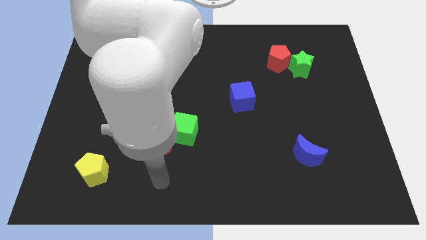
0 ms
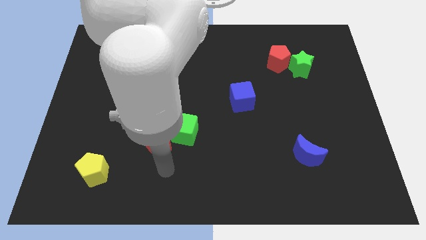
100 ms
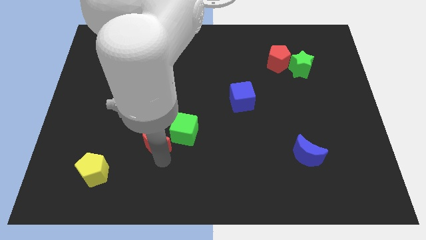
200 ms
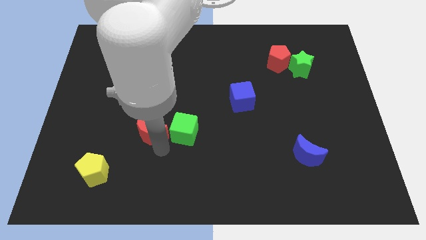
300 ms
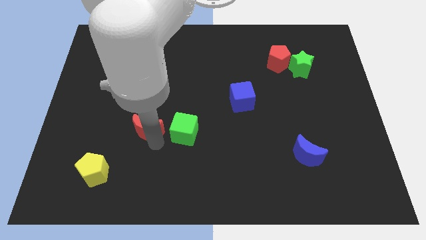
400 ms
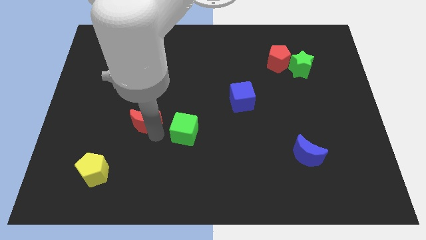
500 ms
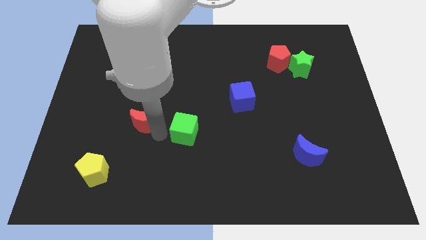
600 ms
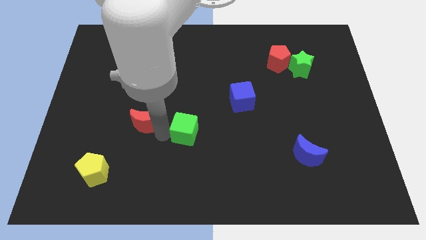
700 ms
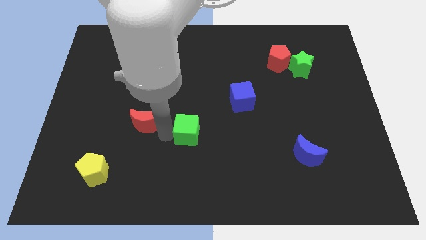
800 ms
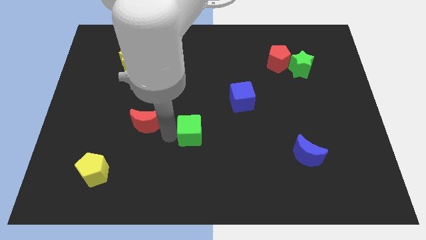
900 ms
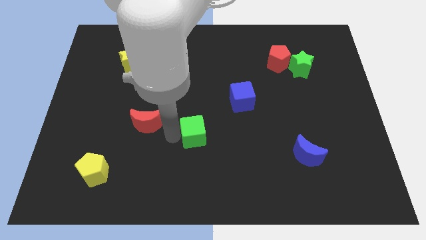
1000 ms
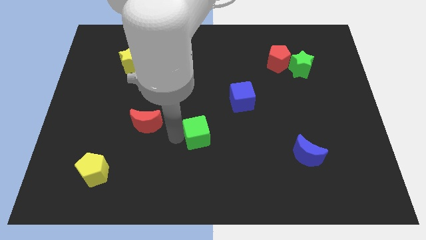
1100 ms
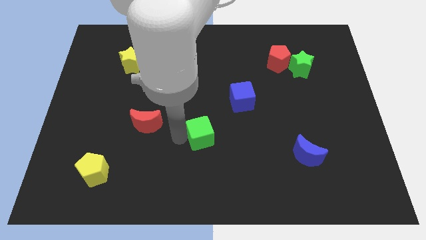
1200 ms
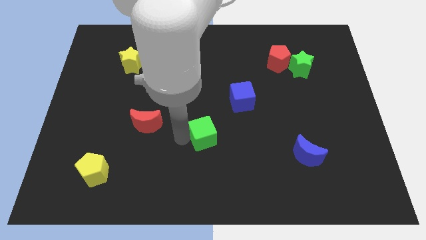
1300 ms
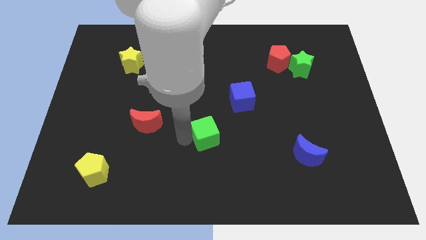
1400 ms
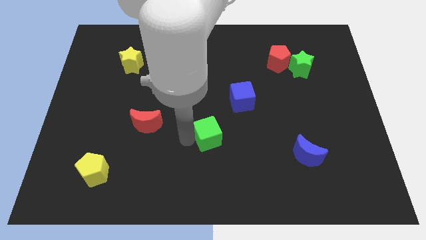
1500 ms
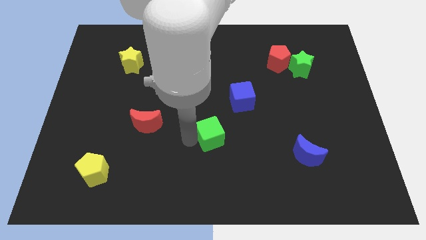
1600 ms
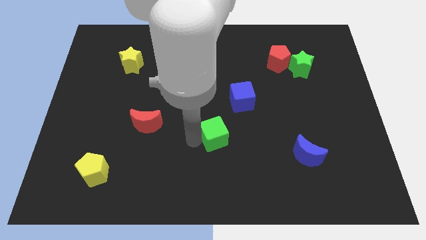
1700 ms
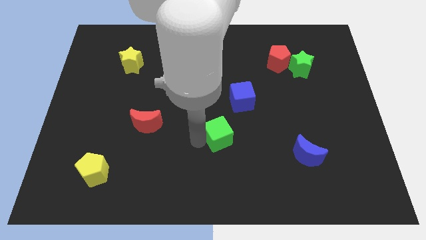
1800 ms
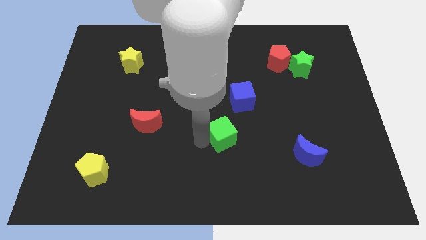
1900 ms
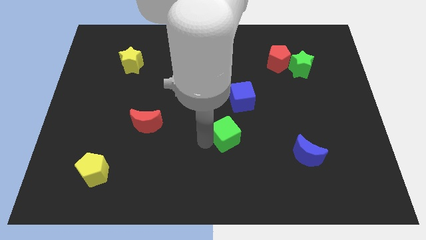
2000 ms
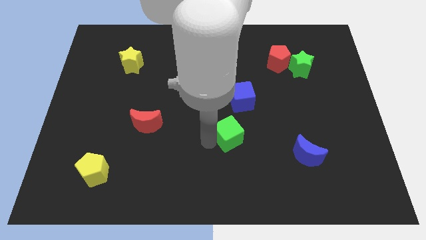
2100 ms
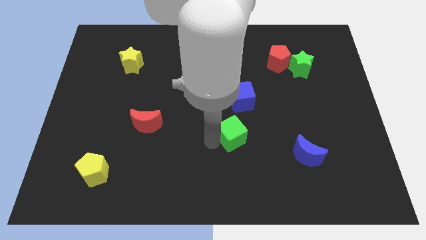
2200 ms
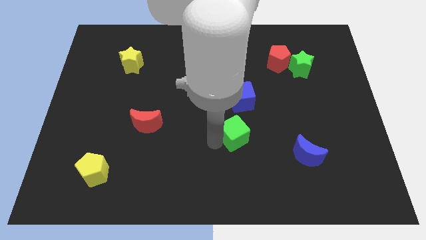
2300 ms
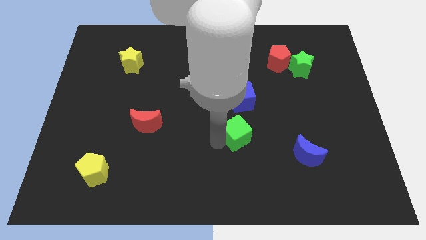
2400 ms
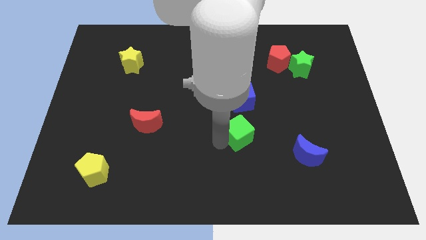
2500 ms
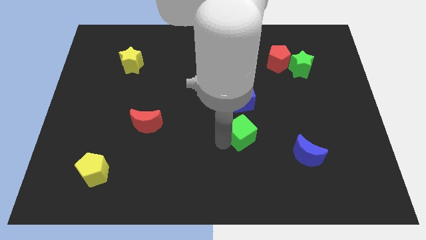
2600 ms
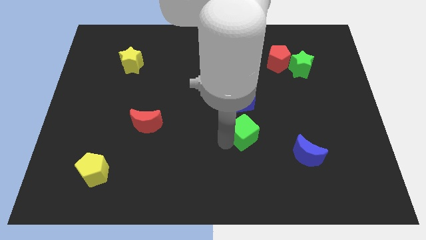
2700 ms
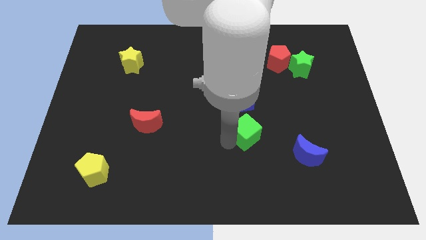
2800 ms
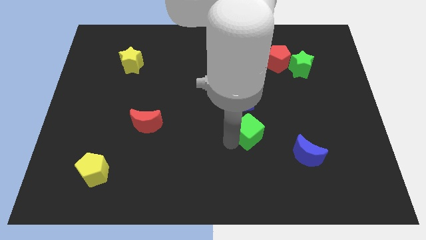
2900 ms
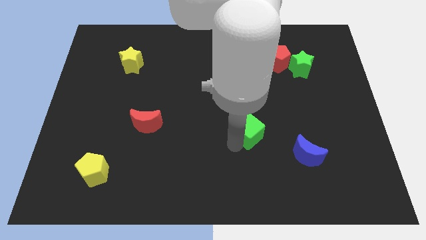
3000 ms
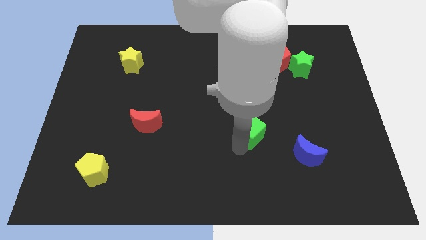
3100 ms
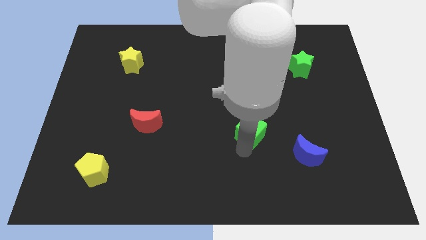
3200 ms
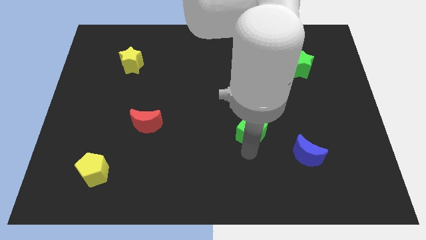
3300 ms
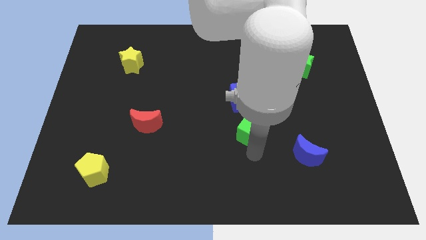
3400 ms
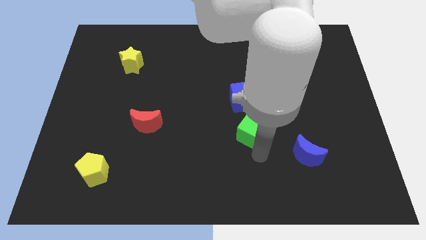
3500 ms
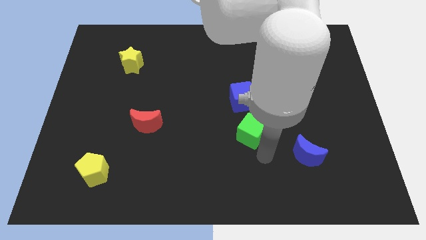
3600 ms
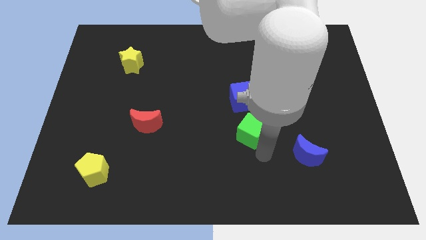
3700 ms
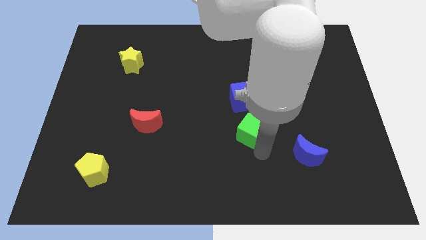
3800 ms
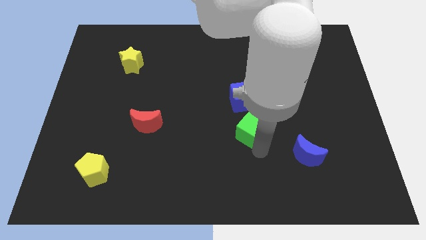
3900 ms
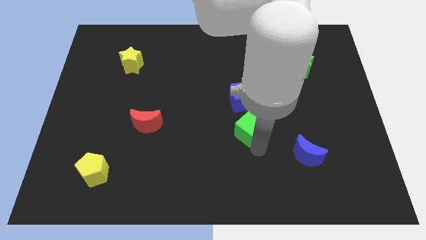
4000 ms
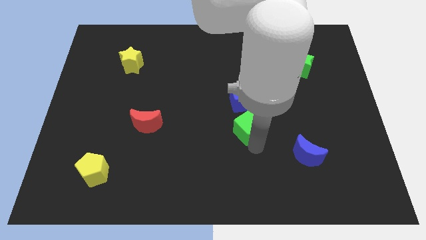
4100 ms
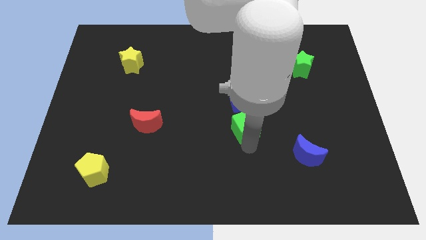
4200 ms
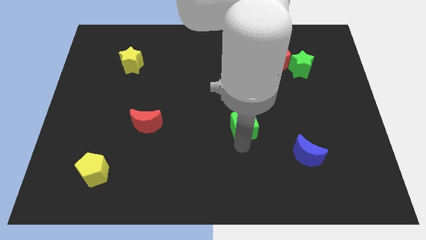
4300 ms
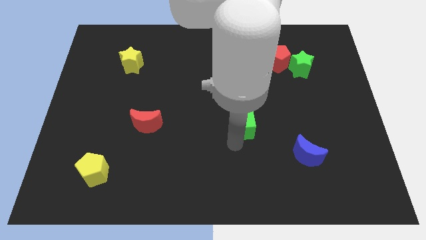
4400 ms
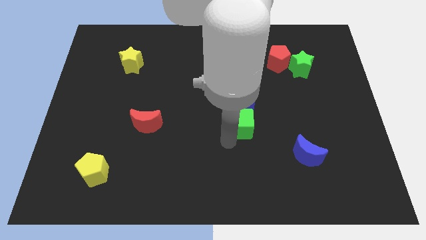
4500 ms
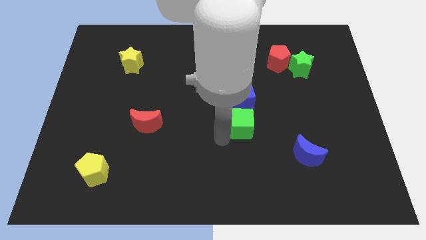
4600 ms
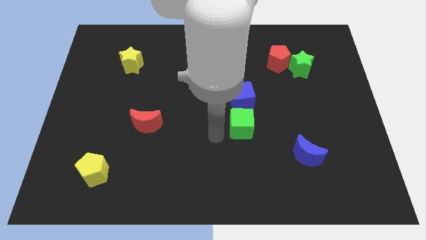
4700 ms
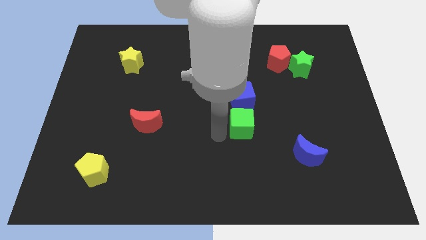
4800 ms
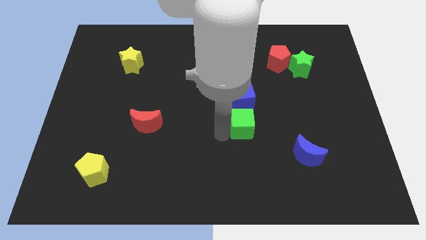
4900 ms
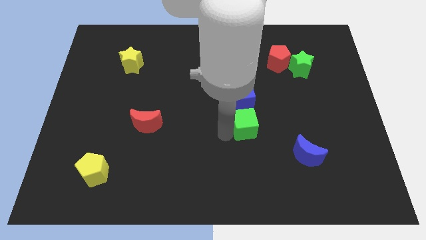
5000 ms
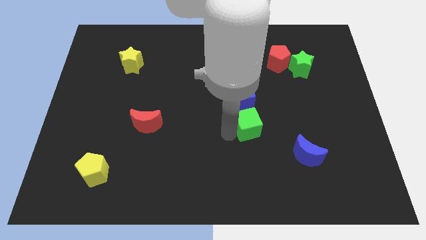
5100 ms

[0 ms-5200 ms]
move the green cube to the bottom right side of the blue cube

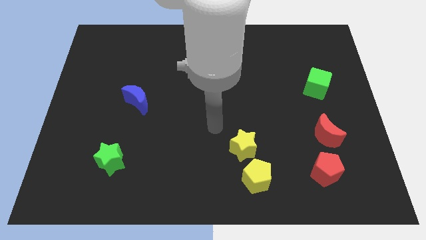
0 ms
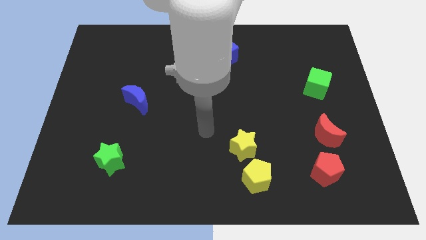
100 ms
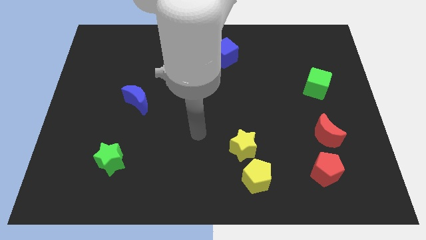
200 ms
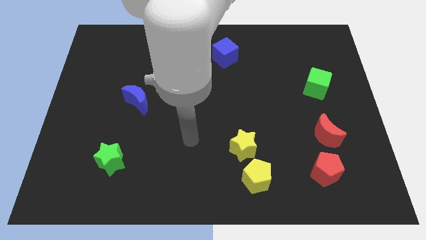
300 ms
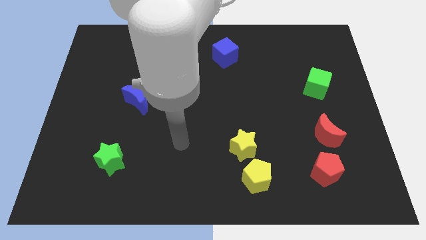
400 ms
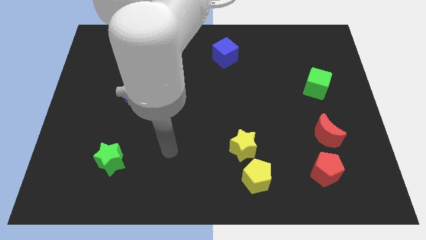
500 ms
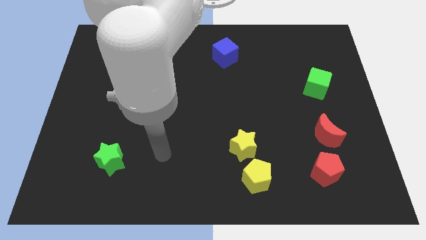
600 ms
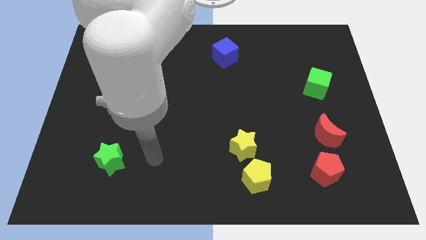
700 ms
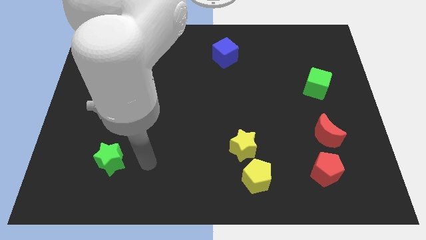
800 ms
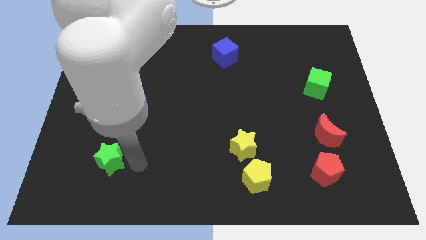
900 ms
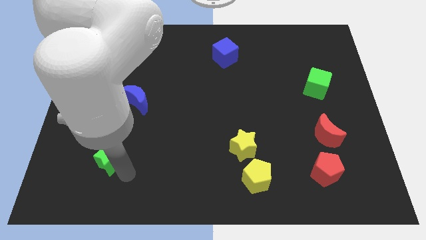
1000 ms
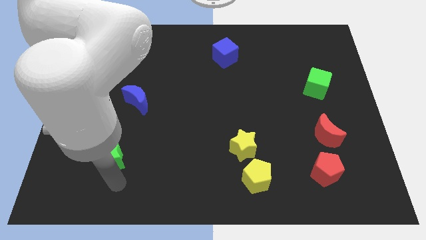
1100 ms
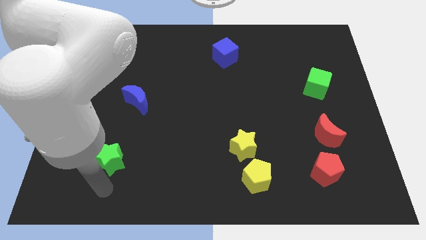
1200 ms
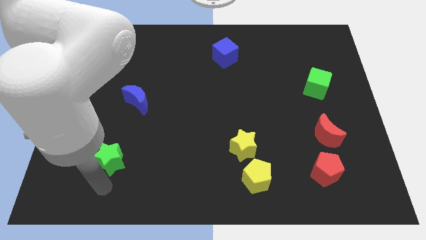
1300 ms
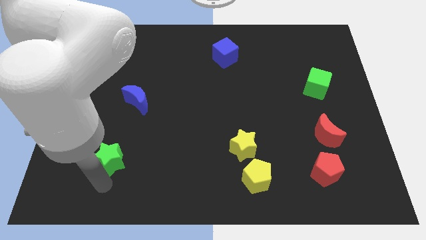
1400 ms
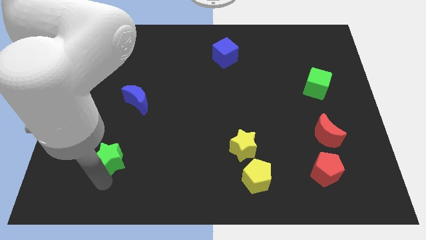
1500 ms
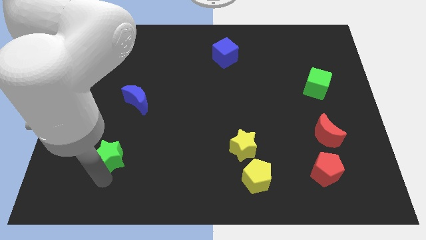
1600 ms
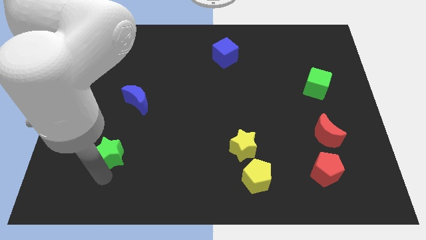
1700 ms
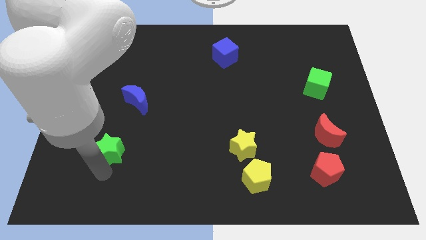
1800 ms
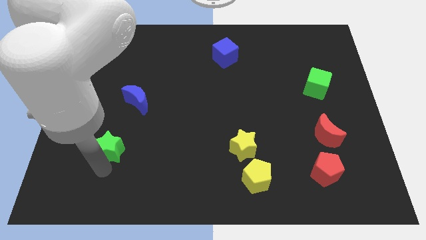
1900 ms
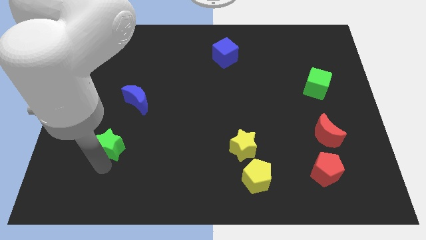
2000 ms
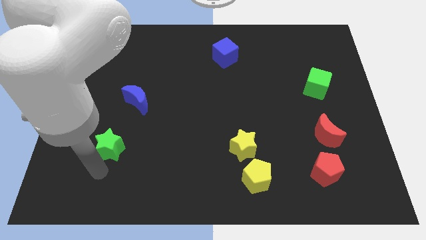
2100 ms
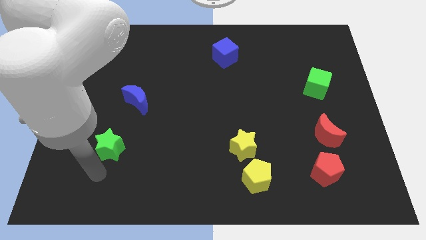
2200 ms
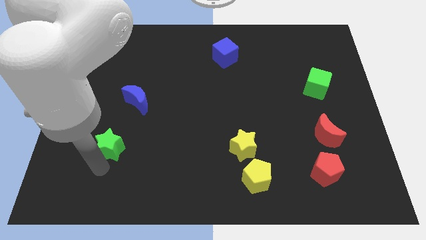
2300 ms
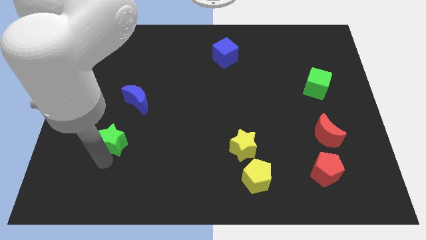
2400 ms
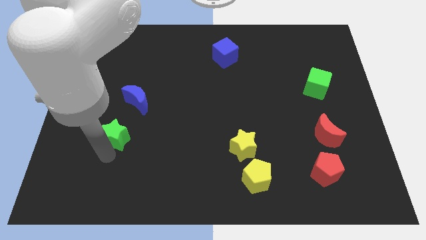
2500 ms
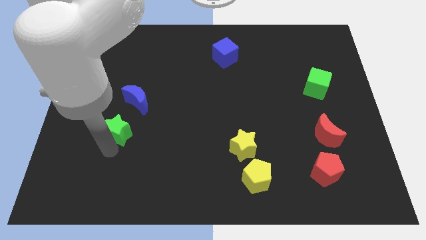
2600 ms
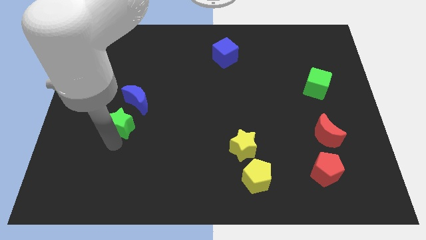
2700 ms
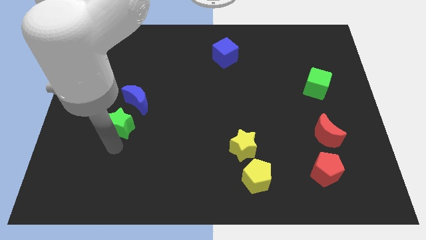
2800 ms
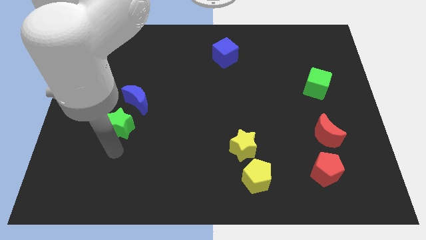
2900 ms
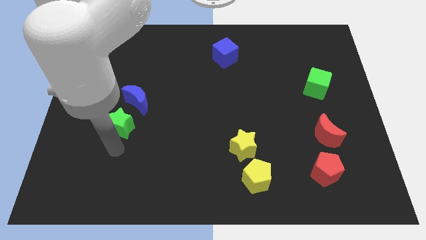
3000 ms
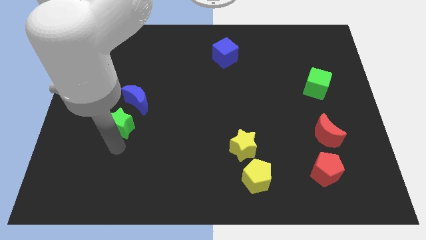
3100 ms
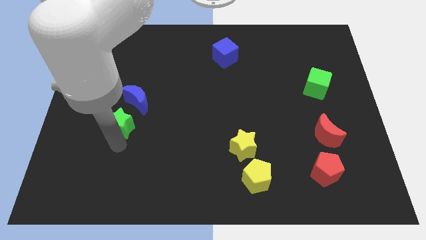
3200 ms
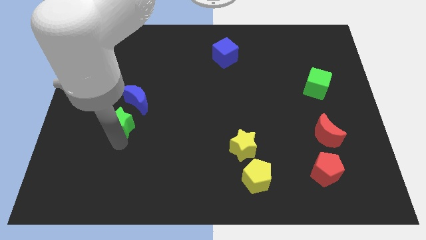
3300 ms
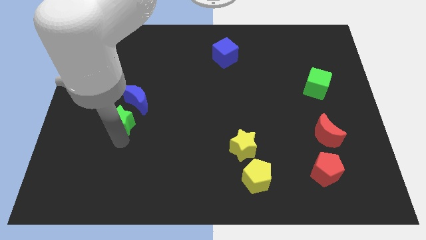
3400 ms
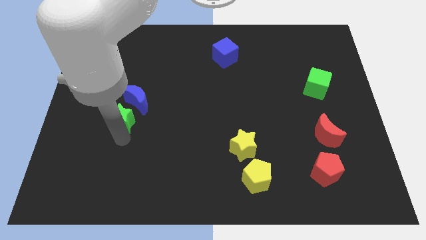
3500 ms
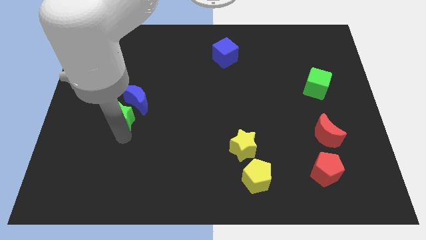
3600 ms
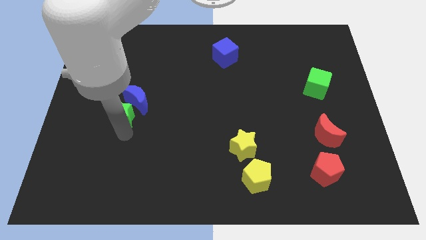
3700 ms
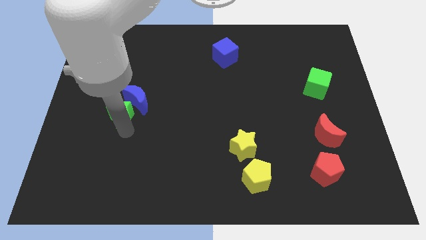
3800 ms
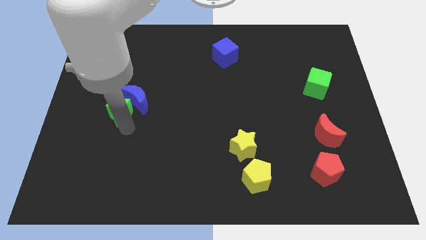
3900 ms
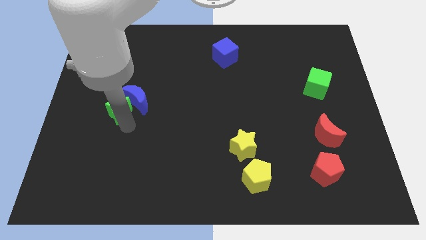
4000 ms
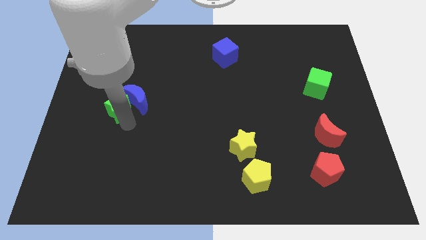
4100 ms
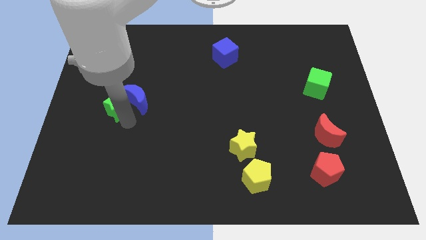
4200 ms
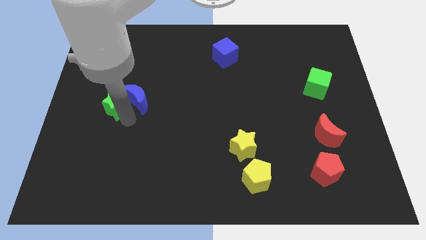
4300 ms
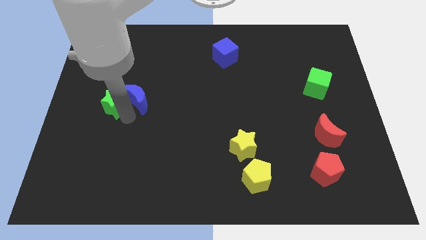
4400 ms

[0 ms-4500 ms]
move the green star diagonally up and to the left of the blue moon
